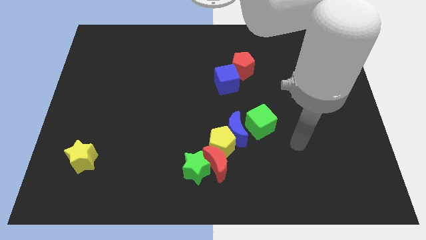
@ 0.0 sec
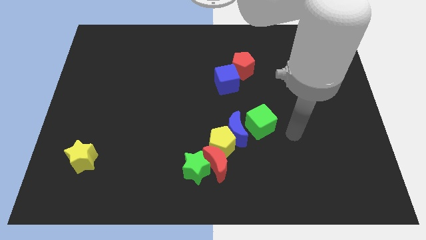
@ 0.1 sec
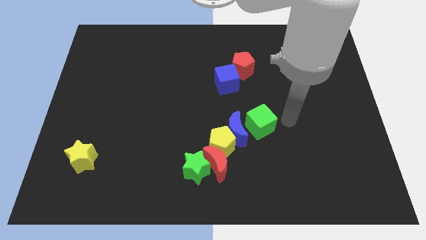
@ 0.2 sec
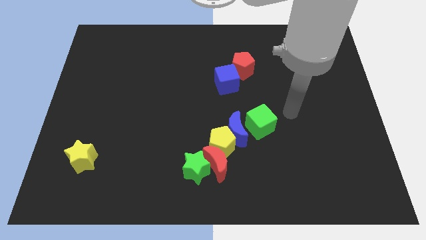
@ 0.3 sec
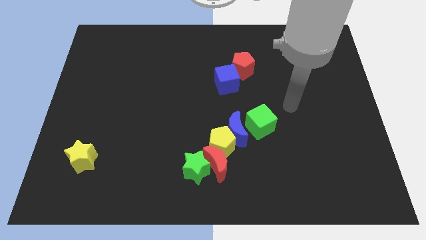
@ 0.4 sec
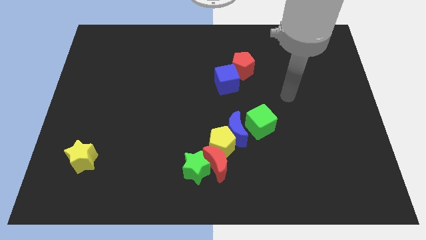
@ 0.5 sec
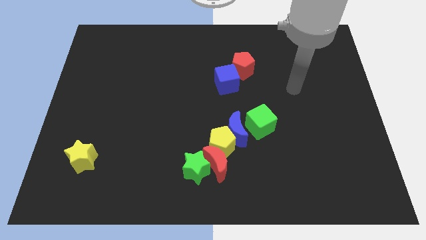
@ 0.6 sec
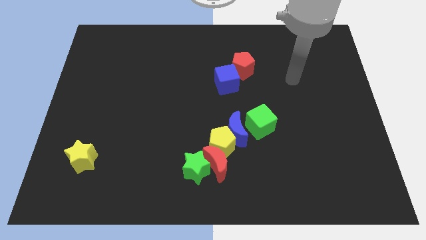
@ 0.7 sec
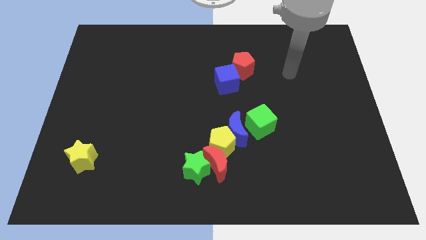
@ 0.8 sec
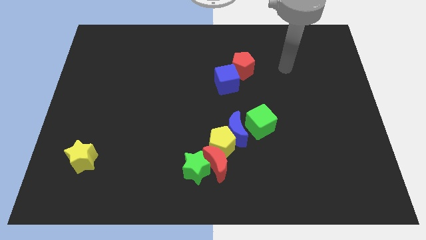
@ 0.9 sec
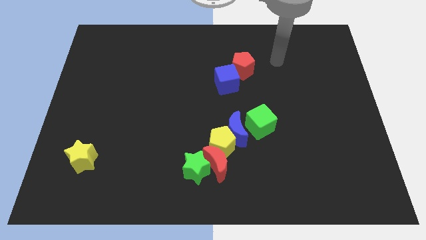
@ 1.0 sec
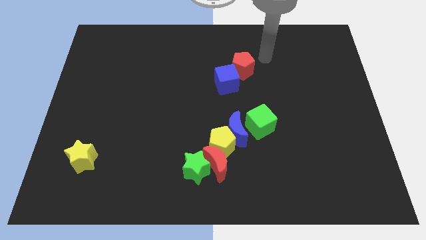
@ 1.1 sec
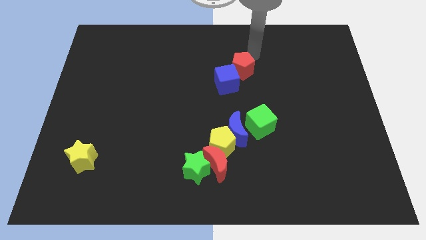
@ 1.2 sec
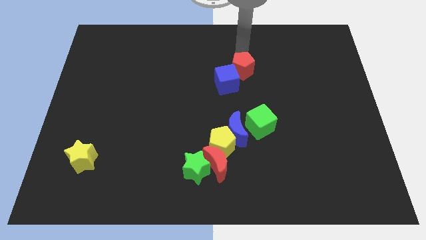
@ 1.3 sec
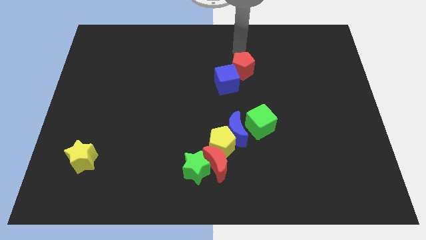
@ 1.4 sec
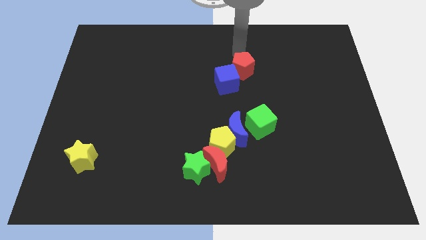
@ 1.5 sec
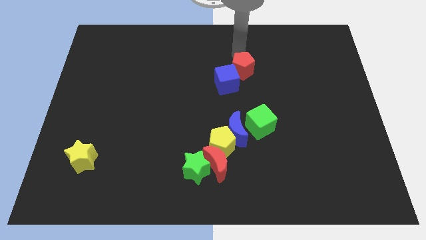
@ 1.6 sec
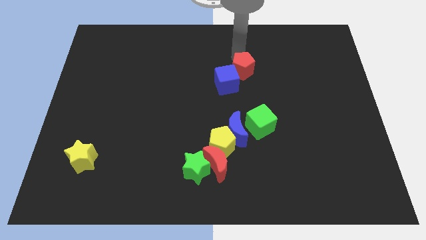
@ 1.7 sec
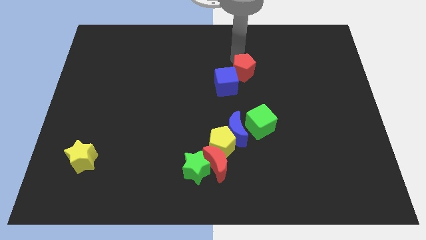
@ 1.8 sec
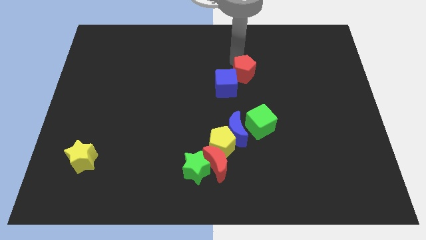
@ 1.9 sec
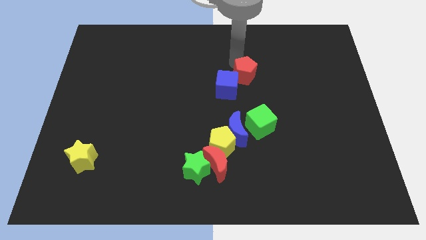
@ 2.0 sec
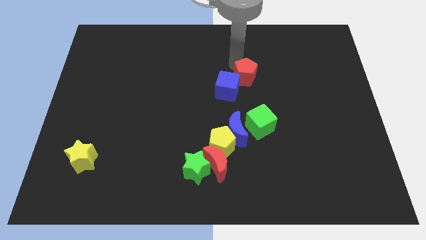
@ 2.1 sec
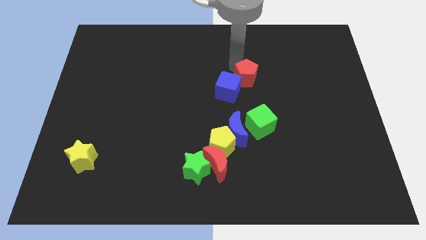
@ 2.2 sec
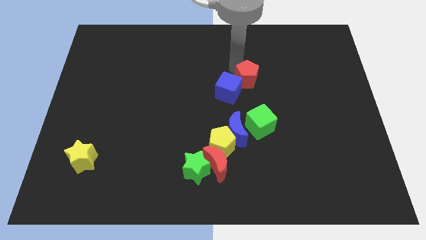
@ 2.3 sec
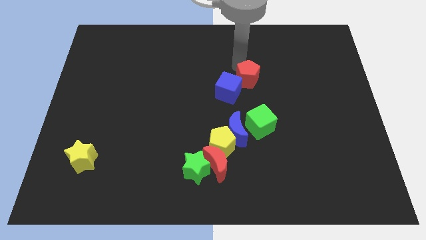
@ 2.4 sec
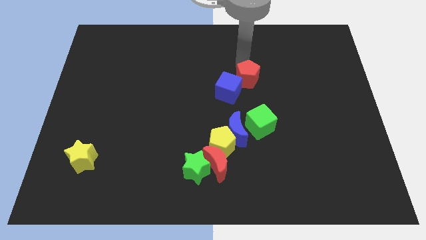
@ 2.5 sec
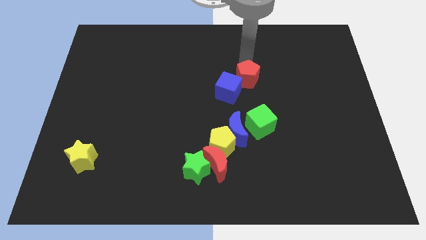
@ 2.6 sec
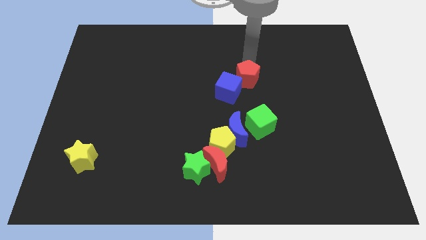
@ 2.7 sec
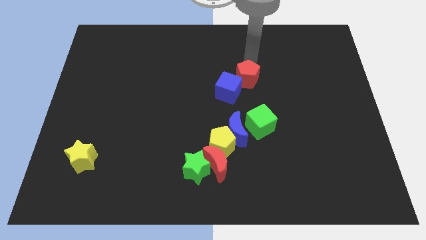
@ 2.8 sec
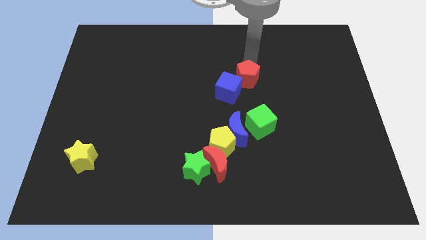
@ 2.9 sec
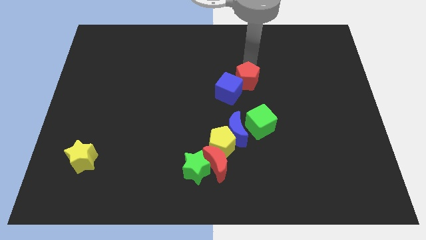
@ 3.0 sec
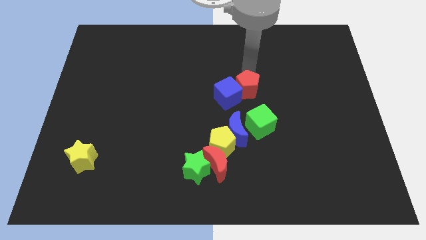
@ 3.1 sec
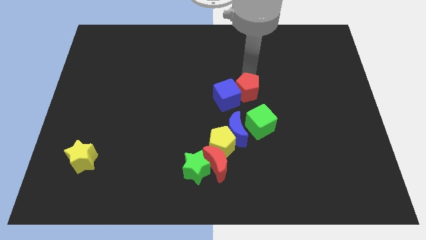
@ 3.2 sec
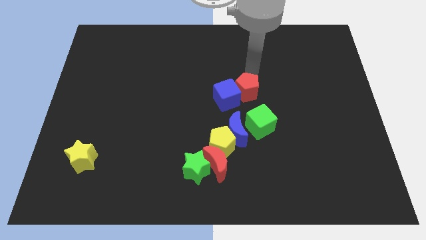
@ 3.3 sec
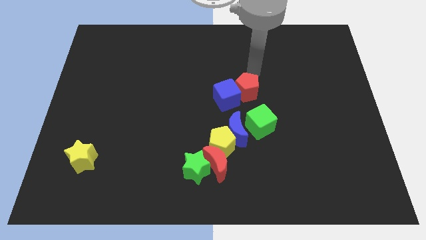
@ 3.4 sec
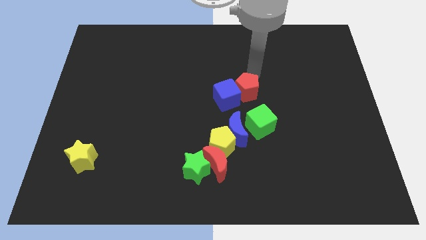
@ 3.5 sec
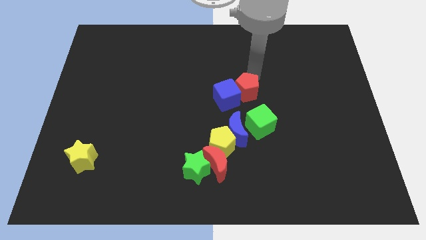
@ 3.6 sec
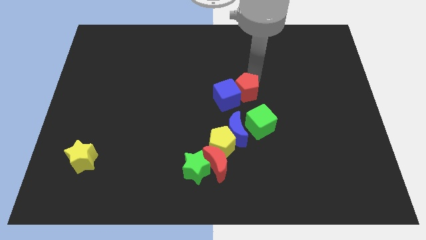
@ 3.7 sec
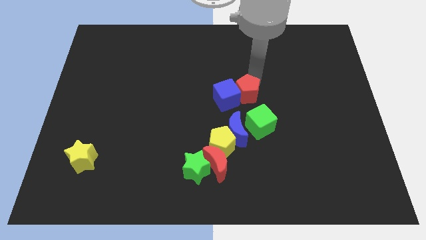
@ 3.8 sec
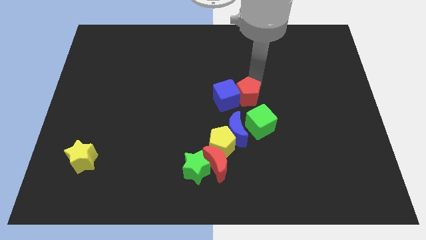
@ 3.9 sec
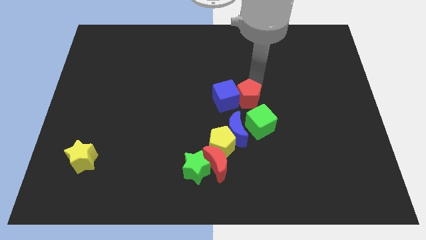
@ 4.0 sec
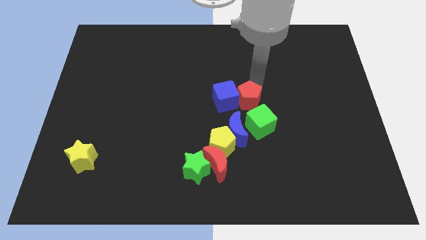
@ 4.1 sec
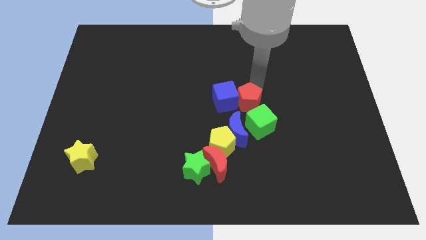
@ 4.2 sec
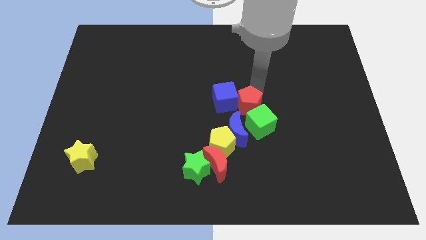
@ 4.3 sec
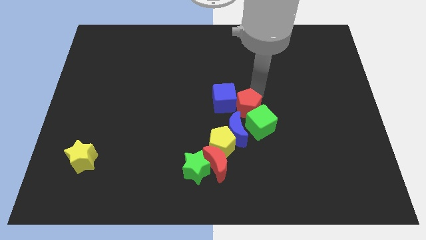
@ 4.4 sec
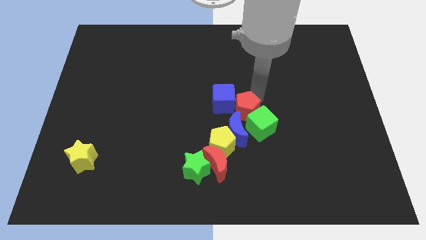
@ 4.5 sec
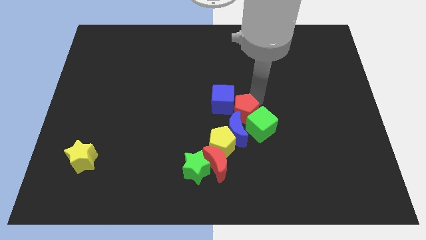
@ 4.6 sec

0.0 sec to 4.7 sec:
put the red pentagon to the blue moon

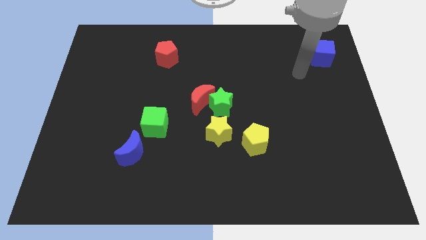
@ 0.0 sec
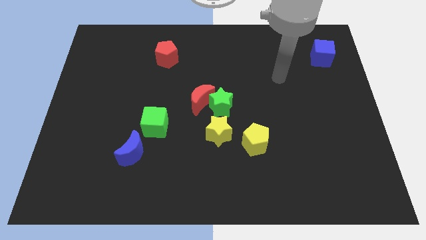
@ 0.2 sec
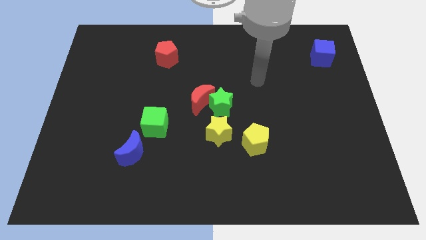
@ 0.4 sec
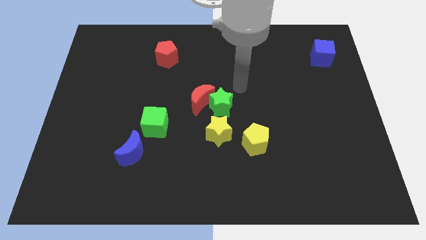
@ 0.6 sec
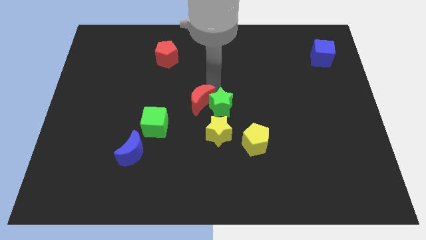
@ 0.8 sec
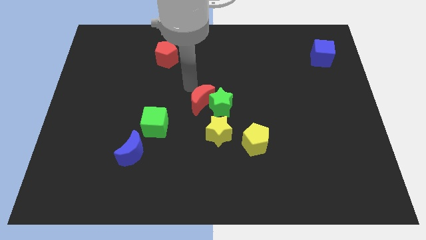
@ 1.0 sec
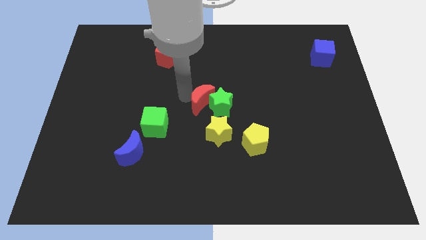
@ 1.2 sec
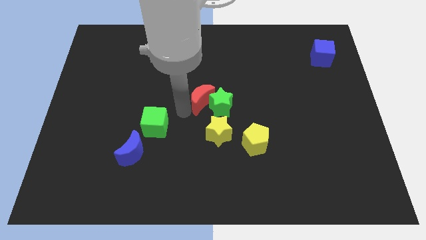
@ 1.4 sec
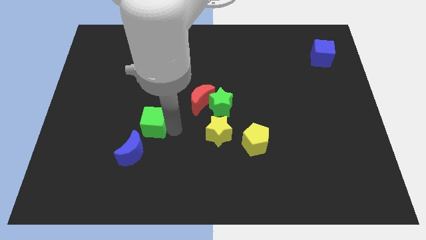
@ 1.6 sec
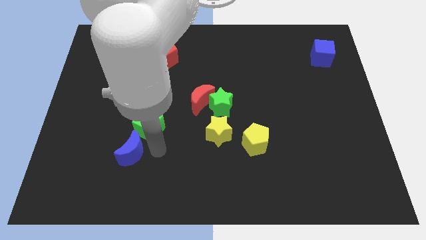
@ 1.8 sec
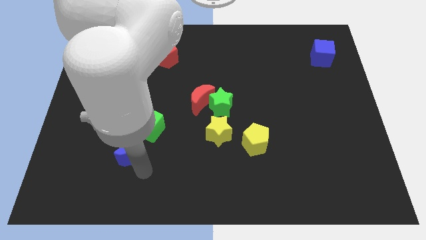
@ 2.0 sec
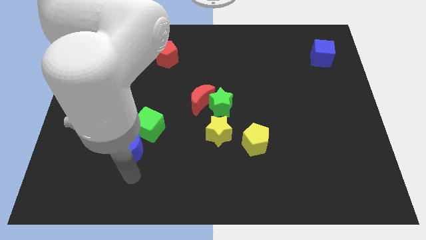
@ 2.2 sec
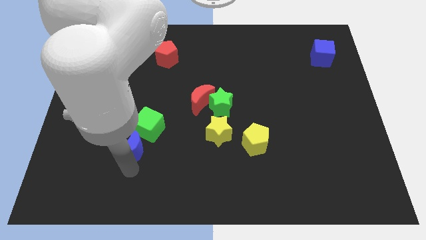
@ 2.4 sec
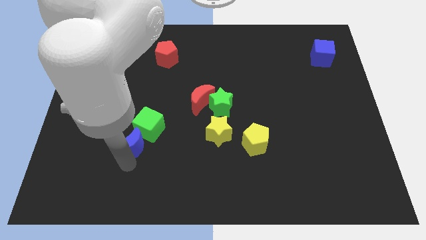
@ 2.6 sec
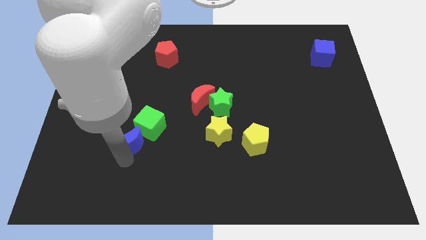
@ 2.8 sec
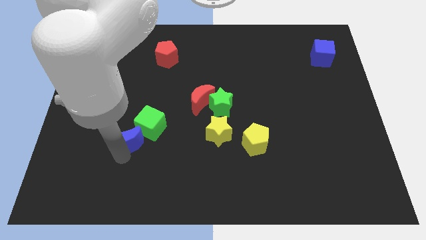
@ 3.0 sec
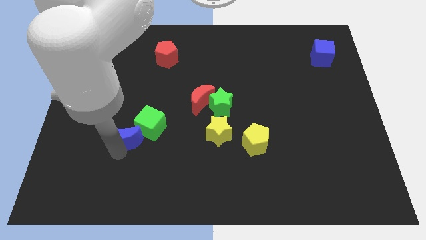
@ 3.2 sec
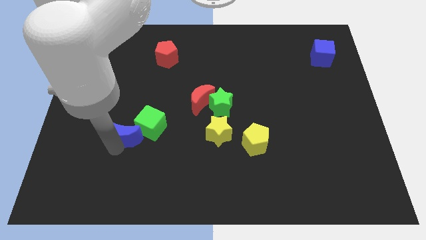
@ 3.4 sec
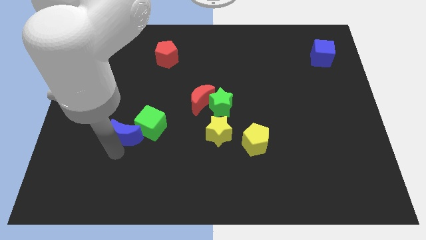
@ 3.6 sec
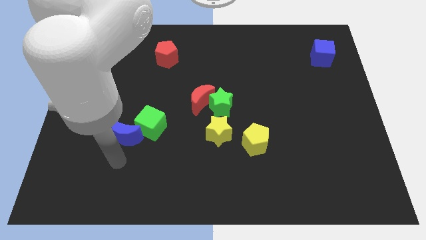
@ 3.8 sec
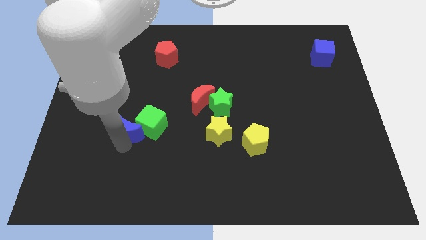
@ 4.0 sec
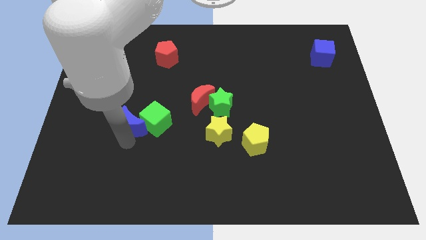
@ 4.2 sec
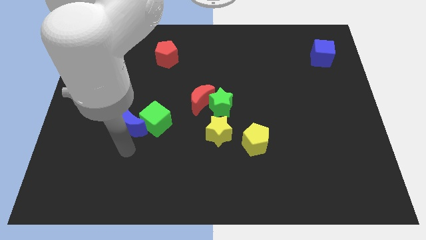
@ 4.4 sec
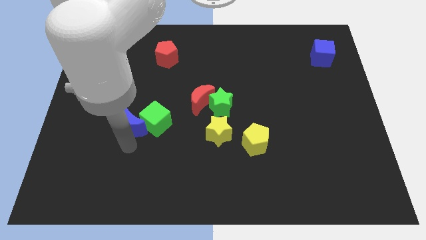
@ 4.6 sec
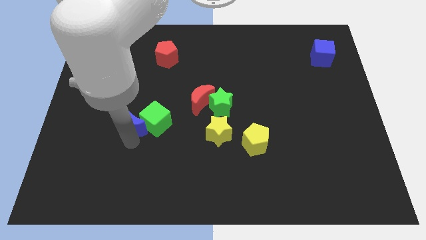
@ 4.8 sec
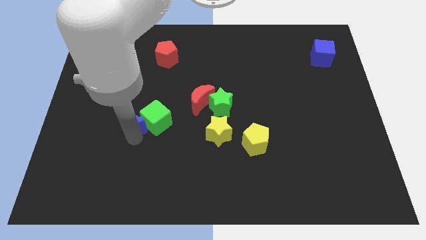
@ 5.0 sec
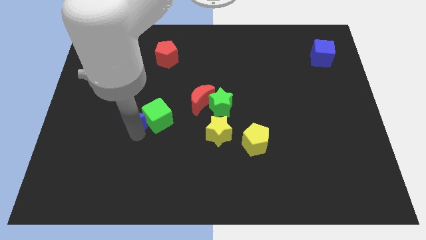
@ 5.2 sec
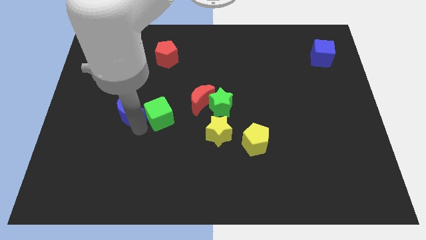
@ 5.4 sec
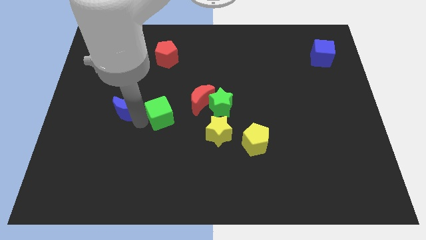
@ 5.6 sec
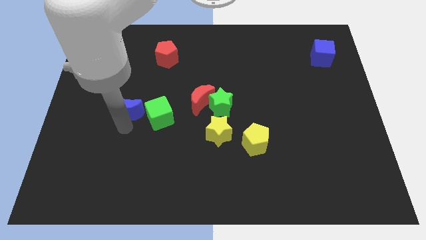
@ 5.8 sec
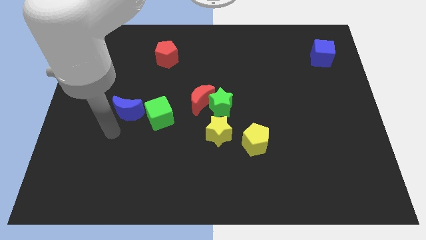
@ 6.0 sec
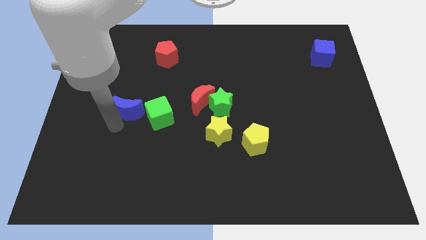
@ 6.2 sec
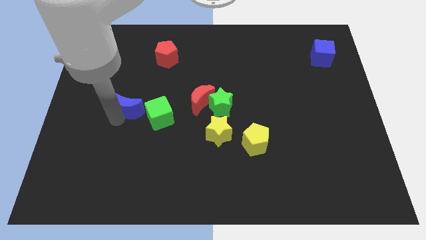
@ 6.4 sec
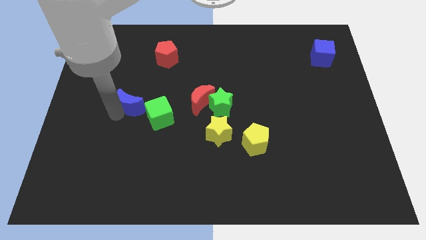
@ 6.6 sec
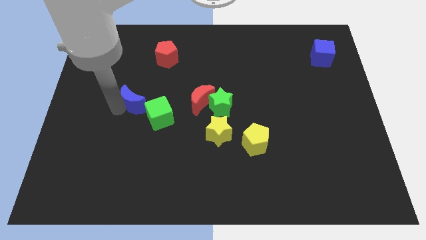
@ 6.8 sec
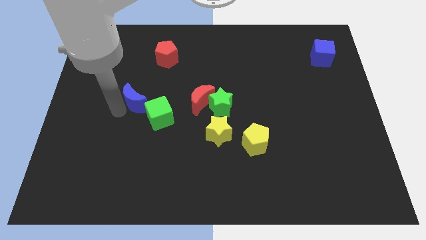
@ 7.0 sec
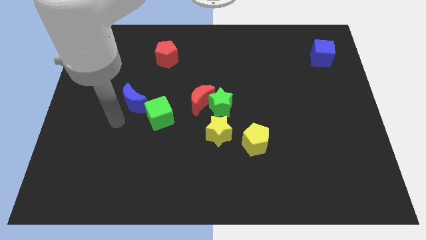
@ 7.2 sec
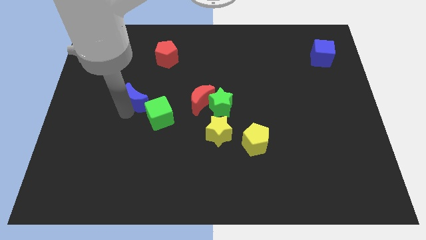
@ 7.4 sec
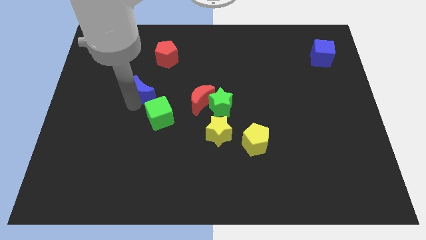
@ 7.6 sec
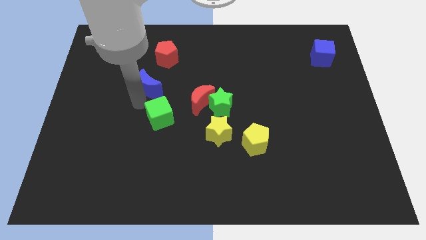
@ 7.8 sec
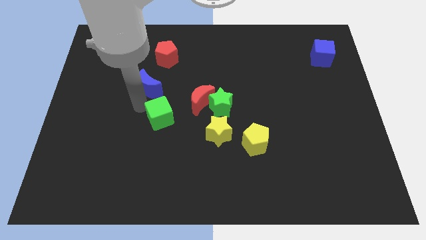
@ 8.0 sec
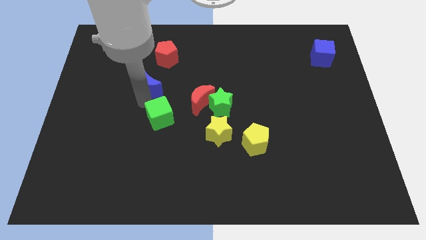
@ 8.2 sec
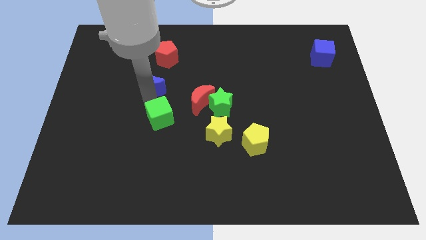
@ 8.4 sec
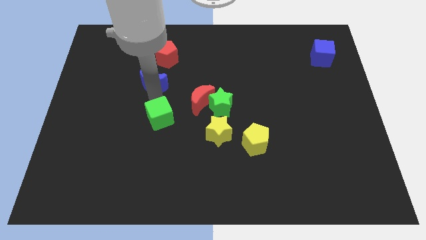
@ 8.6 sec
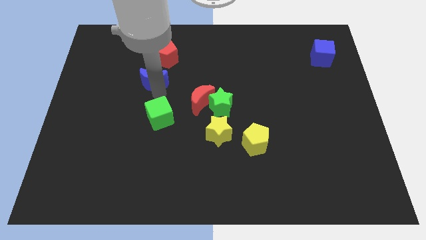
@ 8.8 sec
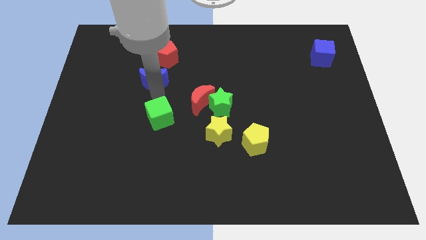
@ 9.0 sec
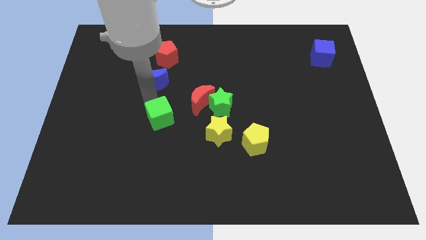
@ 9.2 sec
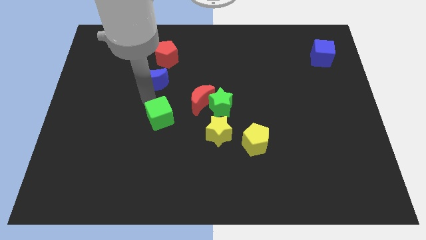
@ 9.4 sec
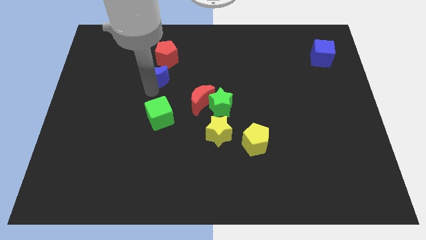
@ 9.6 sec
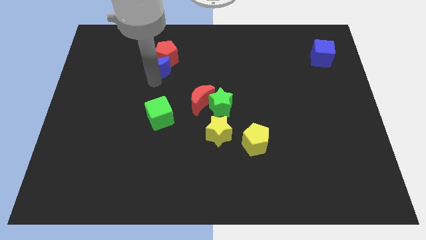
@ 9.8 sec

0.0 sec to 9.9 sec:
slide the blue moon to the red pentagon
